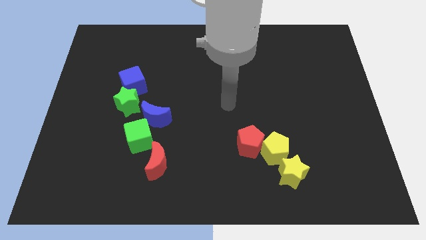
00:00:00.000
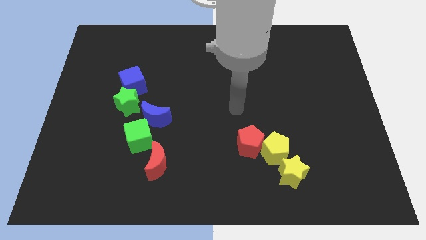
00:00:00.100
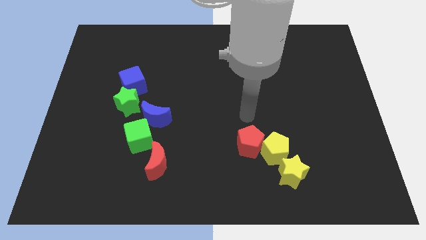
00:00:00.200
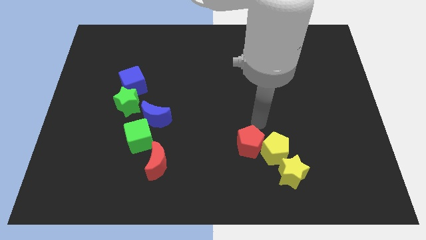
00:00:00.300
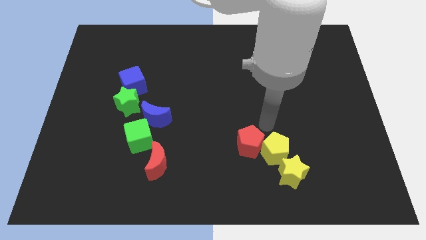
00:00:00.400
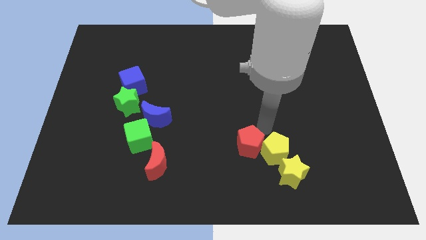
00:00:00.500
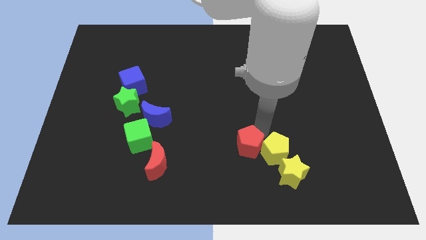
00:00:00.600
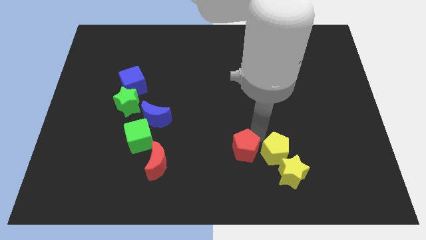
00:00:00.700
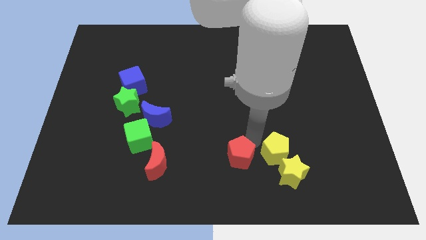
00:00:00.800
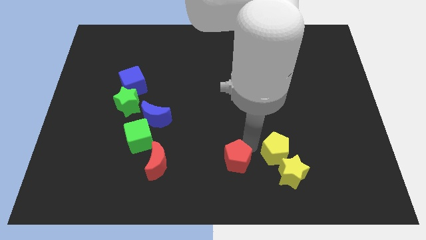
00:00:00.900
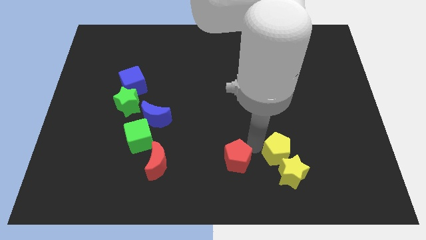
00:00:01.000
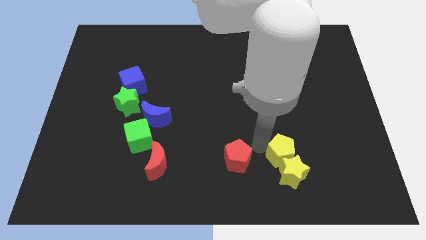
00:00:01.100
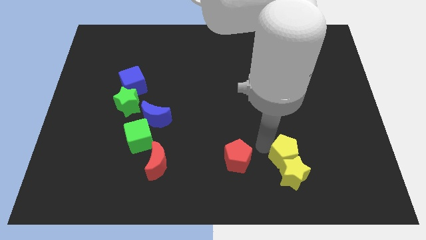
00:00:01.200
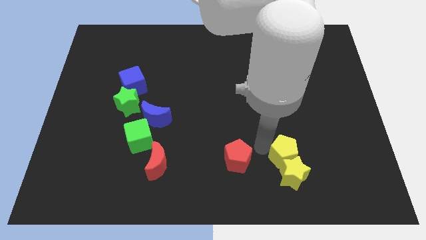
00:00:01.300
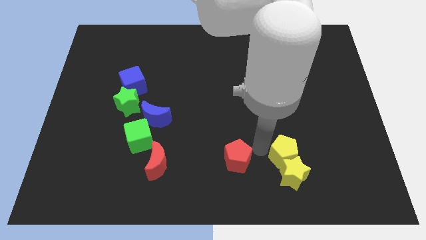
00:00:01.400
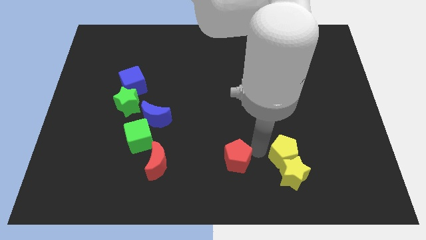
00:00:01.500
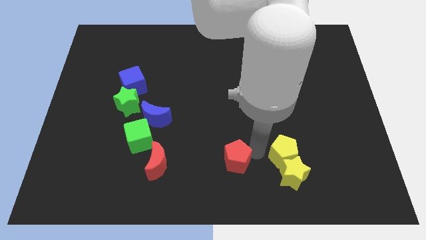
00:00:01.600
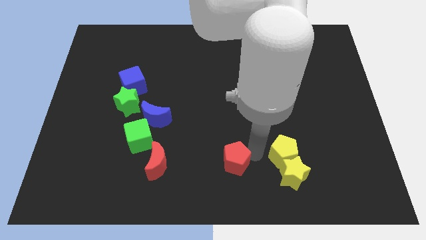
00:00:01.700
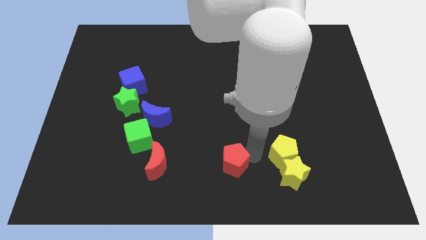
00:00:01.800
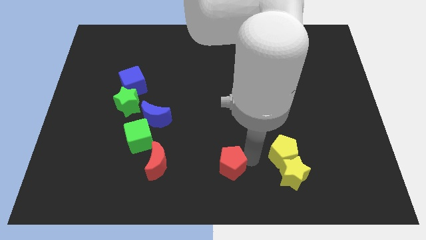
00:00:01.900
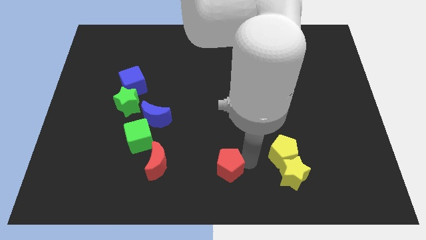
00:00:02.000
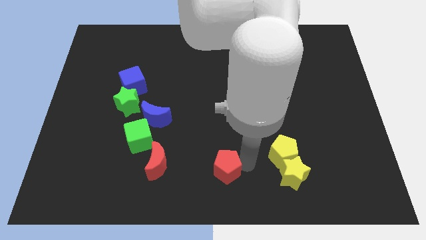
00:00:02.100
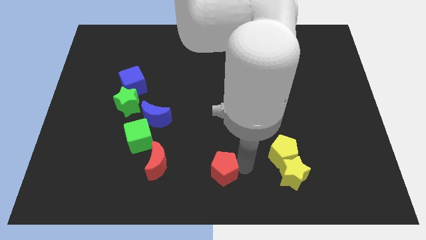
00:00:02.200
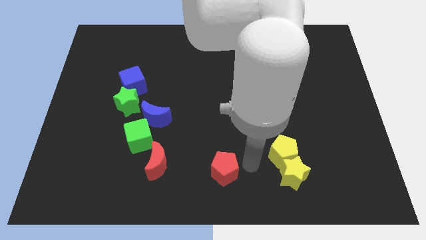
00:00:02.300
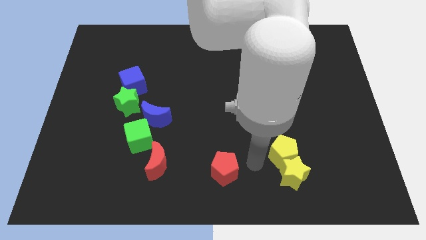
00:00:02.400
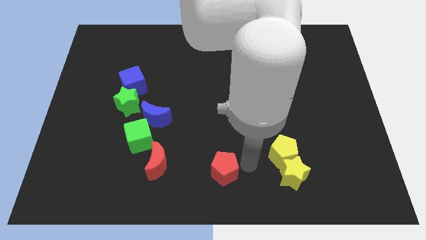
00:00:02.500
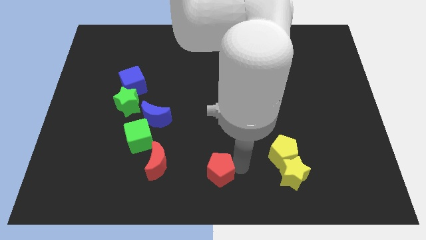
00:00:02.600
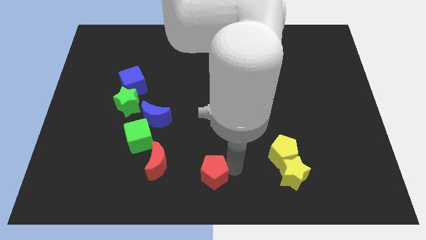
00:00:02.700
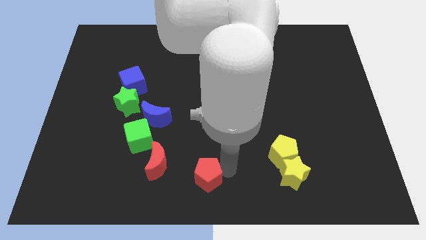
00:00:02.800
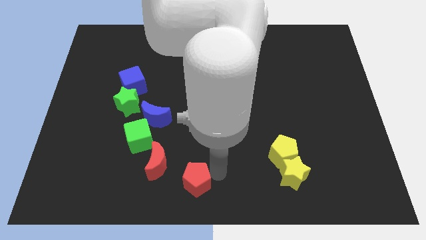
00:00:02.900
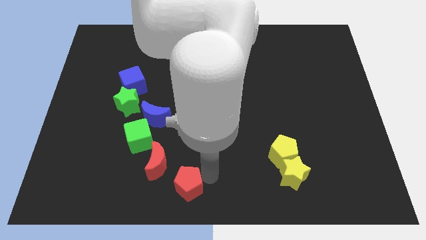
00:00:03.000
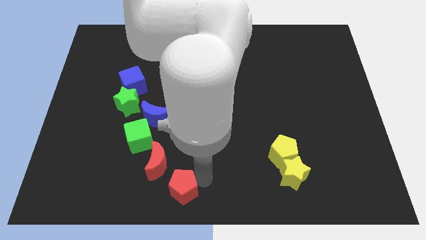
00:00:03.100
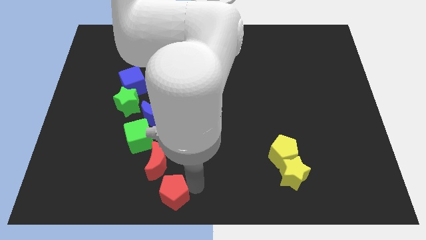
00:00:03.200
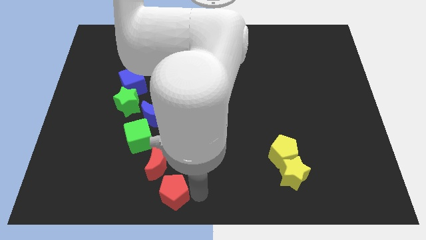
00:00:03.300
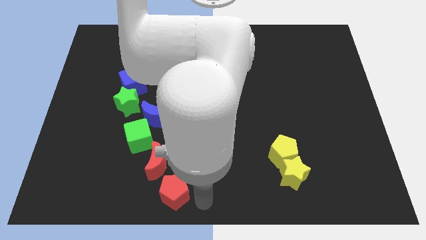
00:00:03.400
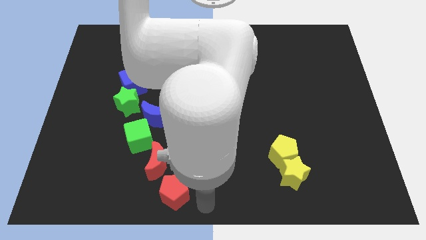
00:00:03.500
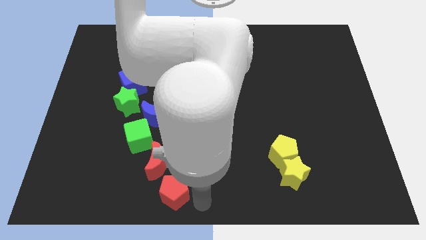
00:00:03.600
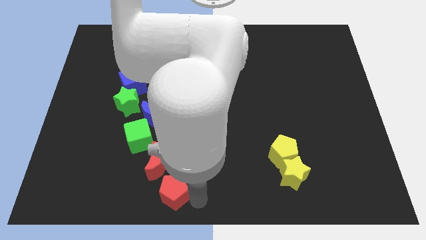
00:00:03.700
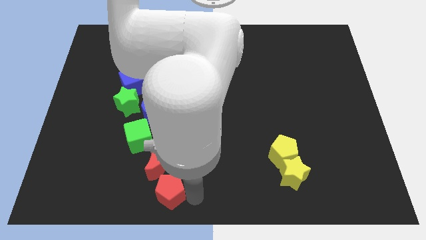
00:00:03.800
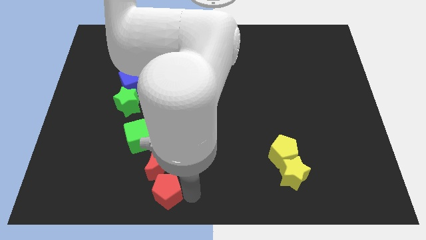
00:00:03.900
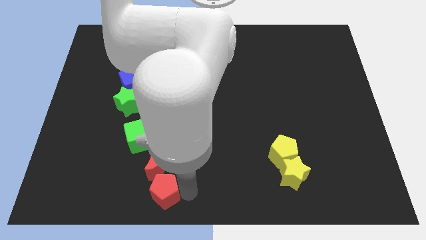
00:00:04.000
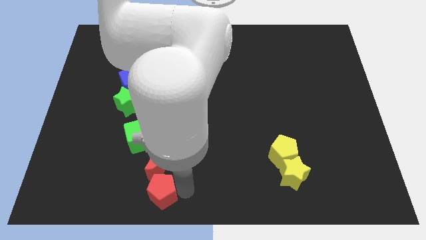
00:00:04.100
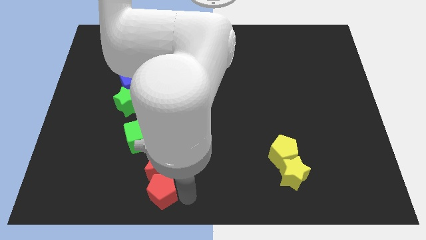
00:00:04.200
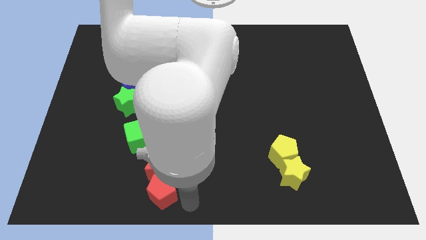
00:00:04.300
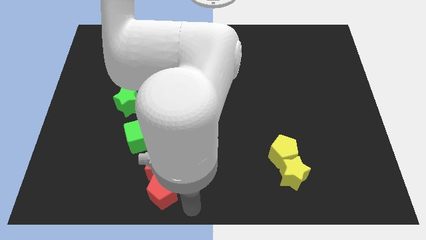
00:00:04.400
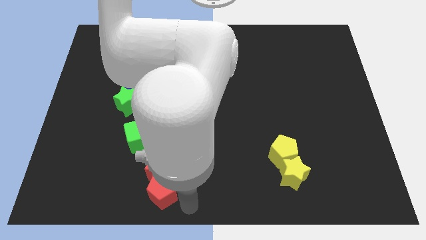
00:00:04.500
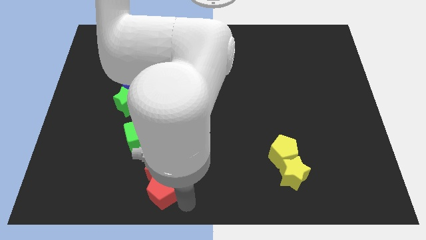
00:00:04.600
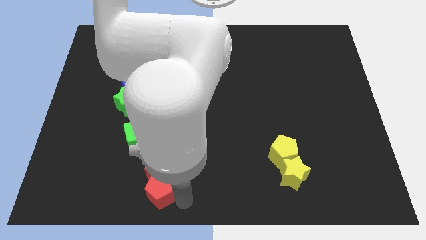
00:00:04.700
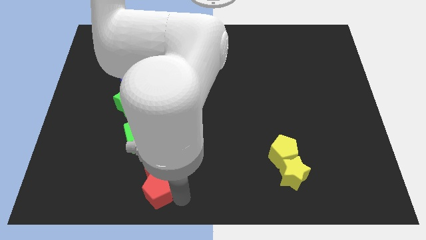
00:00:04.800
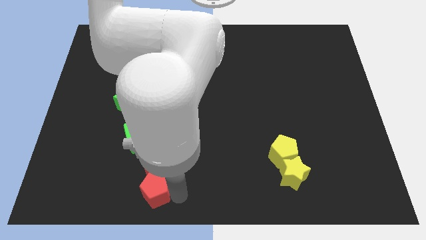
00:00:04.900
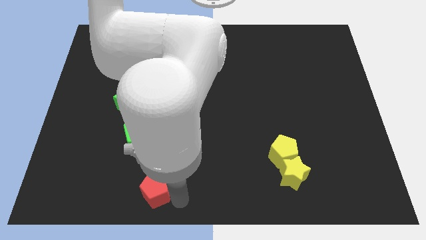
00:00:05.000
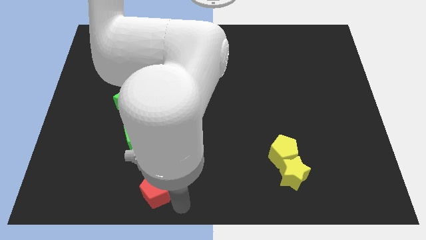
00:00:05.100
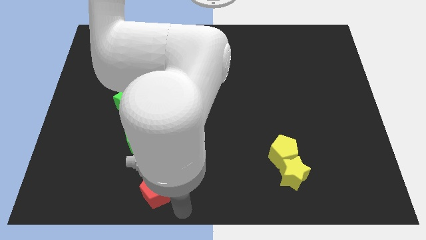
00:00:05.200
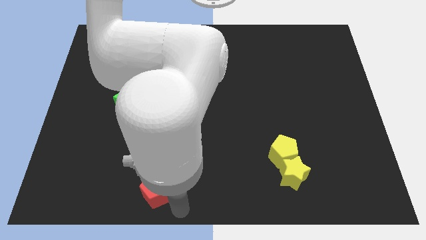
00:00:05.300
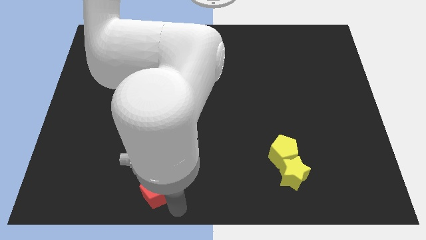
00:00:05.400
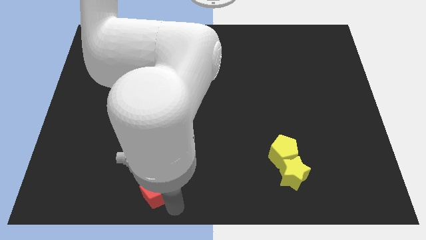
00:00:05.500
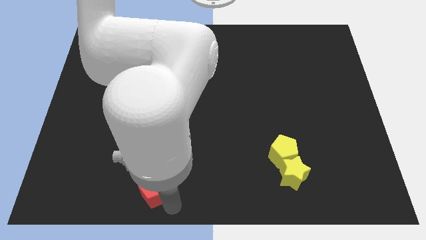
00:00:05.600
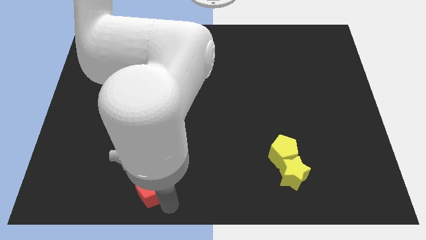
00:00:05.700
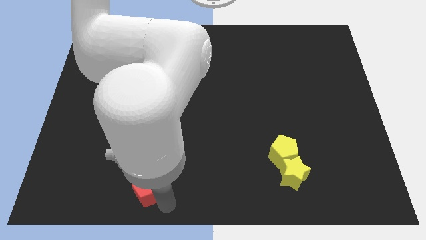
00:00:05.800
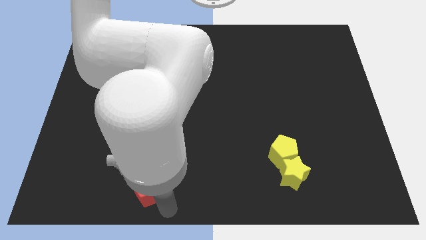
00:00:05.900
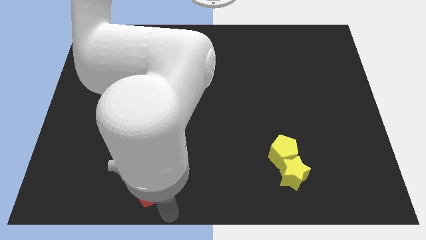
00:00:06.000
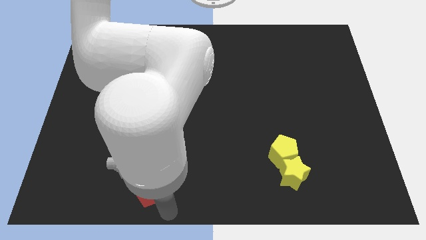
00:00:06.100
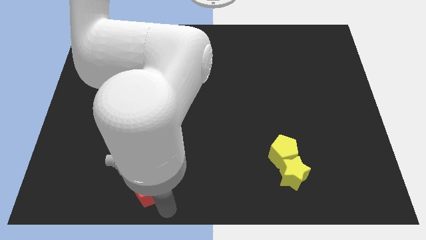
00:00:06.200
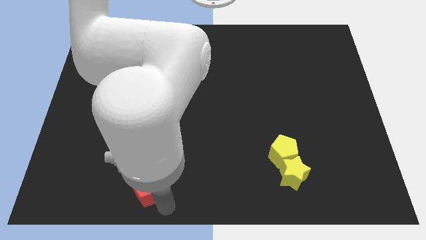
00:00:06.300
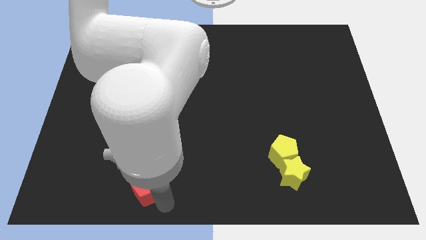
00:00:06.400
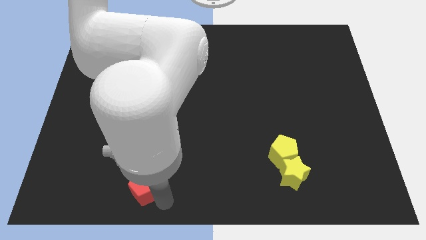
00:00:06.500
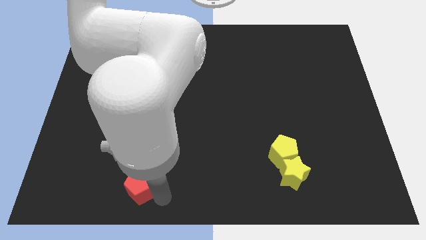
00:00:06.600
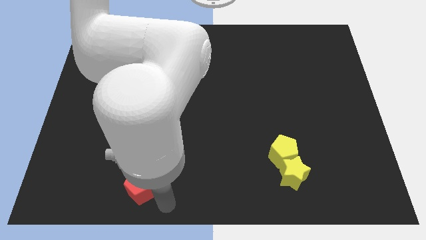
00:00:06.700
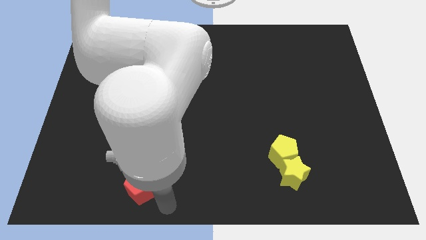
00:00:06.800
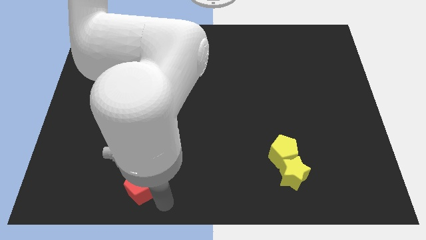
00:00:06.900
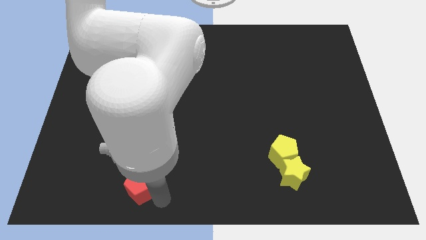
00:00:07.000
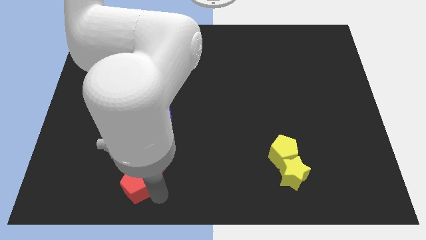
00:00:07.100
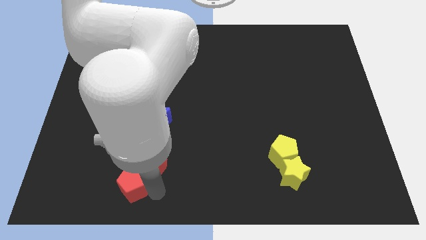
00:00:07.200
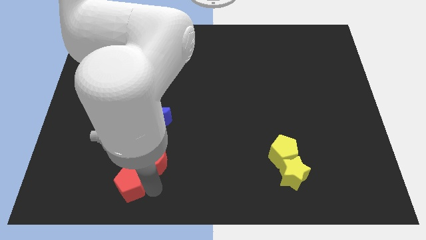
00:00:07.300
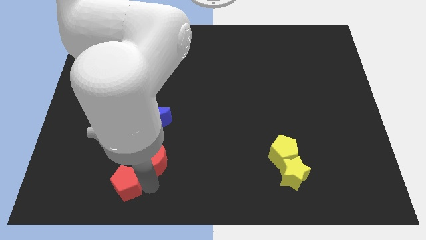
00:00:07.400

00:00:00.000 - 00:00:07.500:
slide the red pentagon to the left of the red moon

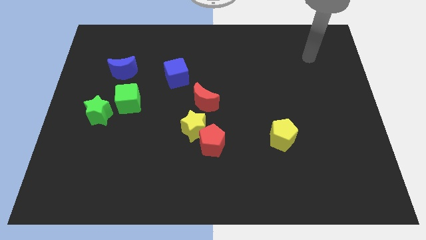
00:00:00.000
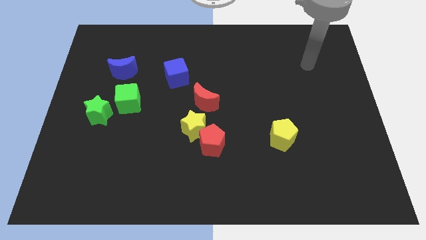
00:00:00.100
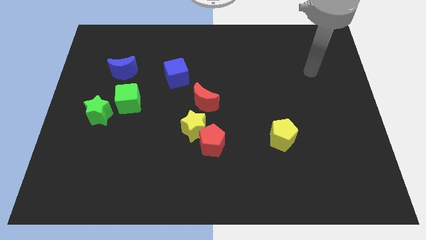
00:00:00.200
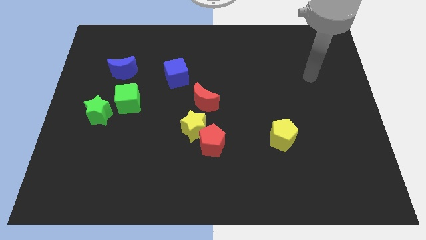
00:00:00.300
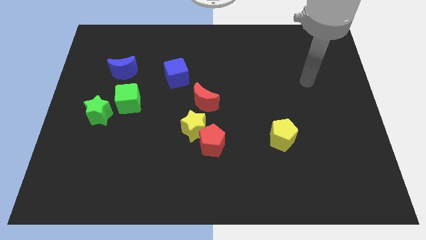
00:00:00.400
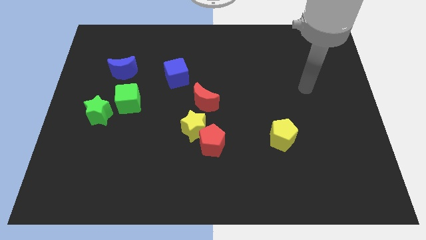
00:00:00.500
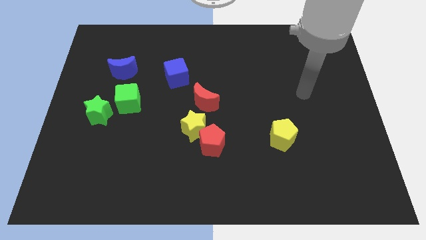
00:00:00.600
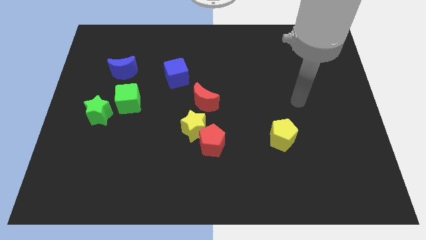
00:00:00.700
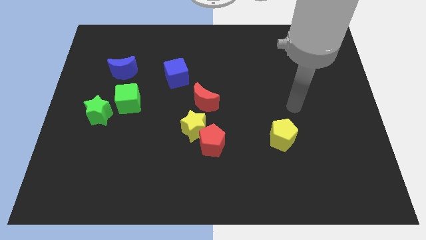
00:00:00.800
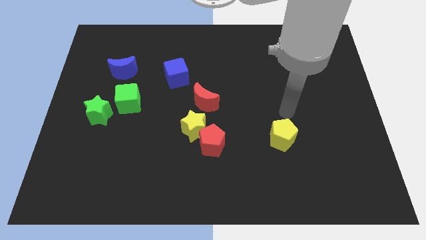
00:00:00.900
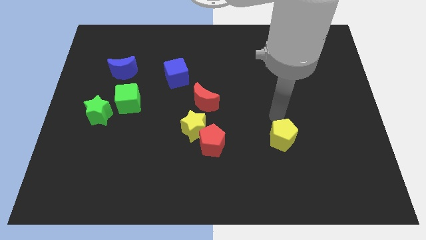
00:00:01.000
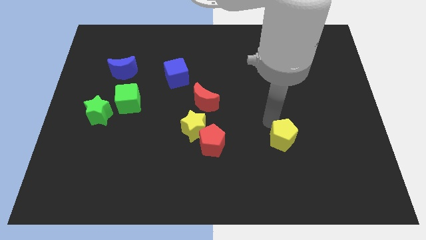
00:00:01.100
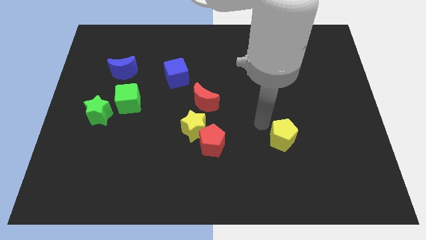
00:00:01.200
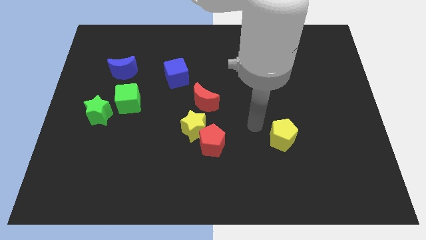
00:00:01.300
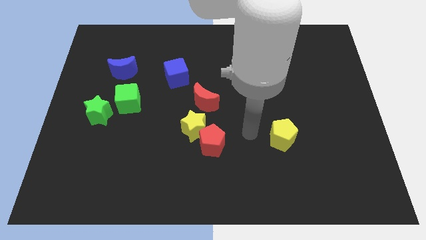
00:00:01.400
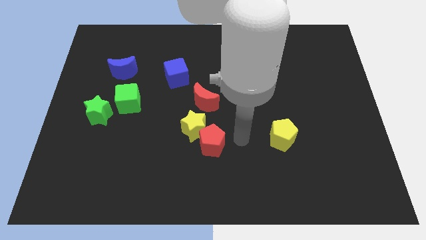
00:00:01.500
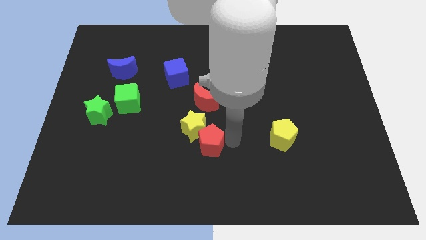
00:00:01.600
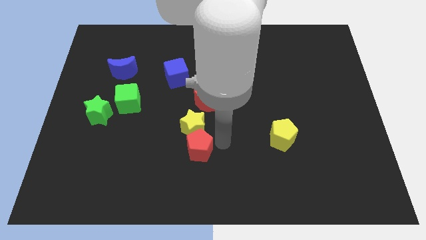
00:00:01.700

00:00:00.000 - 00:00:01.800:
move the red pentagon to the bottom left side of the yellow star
